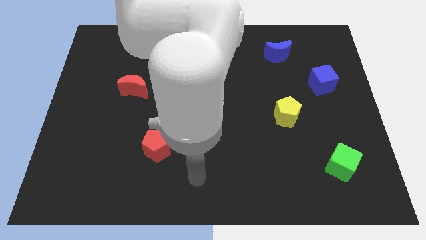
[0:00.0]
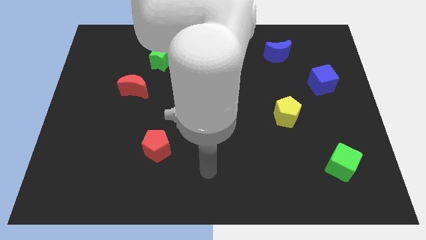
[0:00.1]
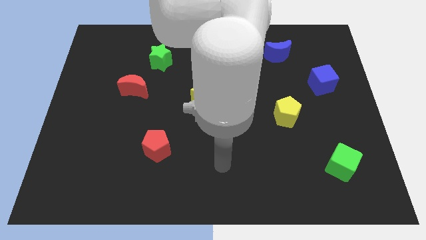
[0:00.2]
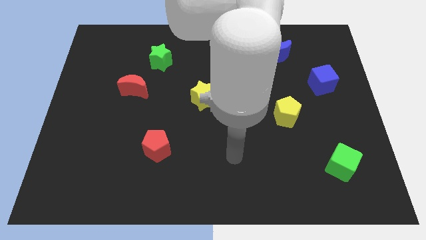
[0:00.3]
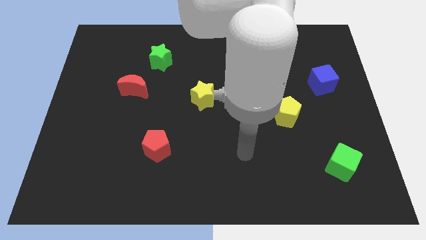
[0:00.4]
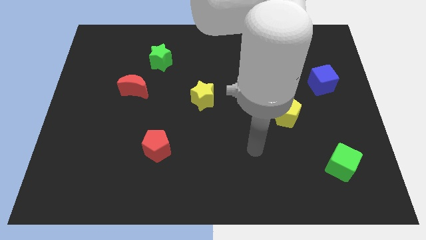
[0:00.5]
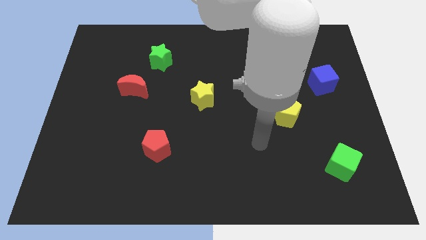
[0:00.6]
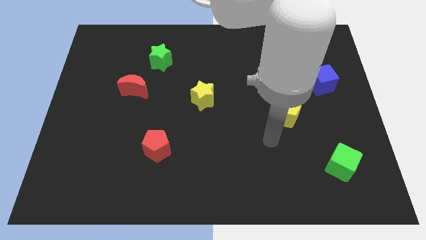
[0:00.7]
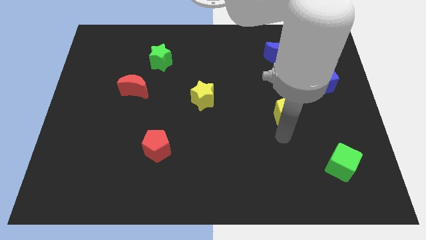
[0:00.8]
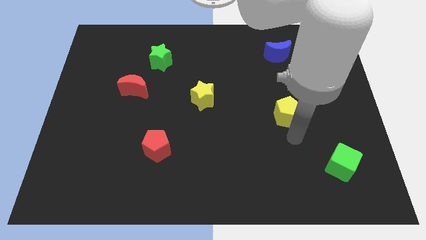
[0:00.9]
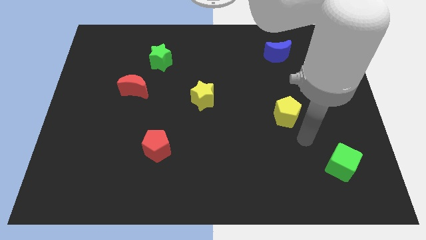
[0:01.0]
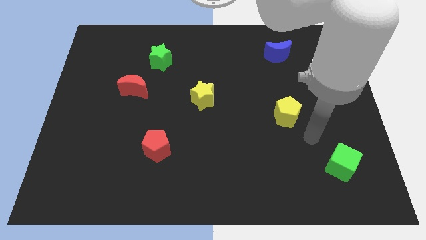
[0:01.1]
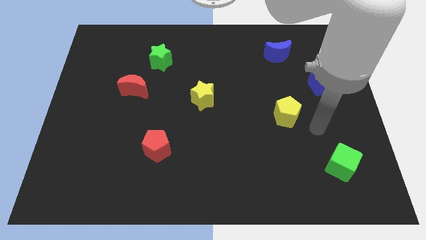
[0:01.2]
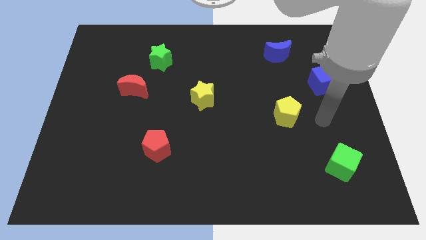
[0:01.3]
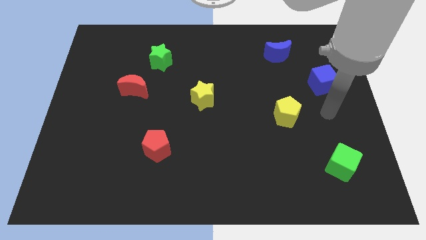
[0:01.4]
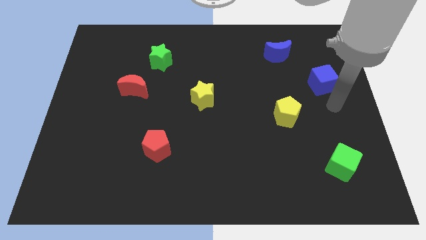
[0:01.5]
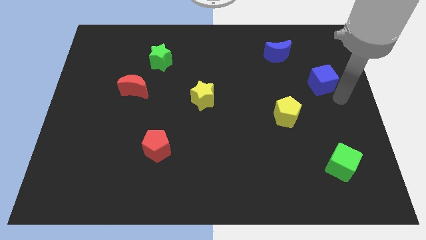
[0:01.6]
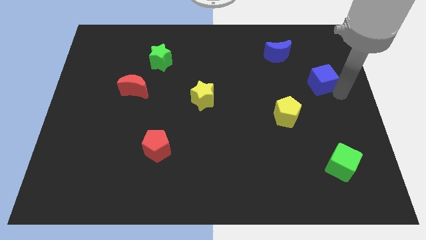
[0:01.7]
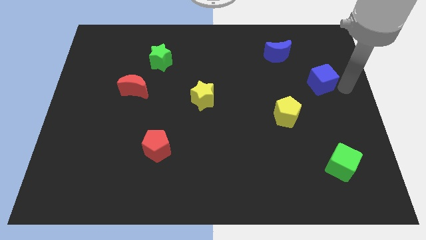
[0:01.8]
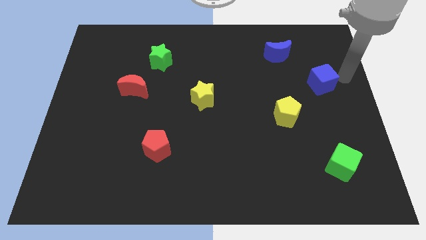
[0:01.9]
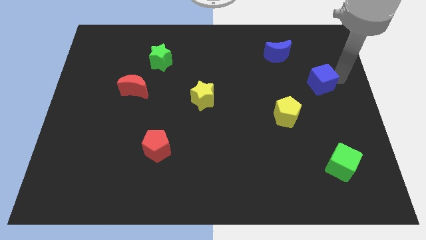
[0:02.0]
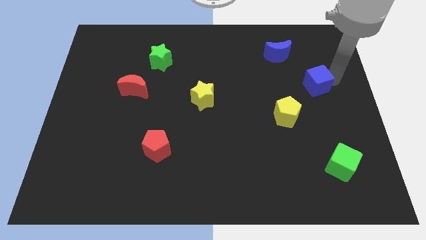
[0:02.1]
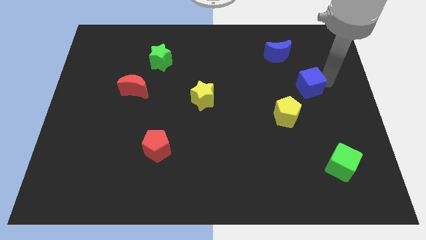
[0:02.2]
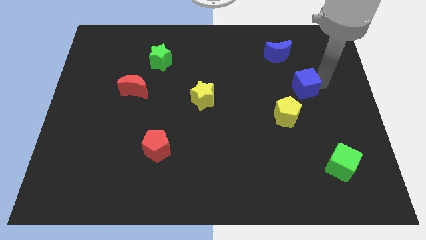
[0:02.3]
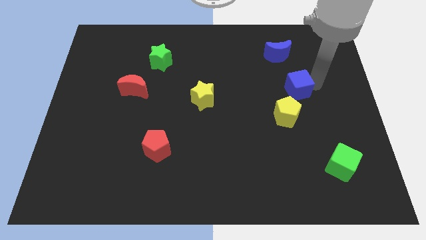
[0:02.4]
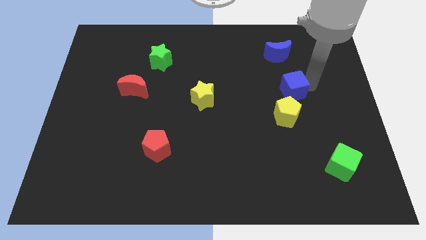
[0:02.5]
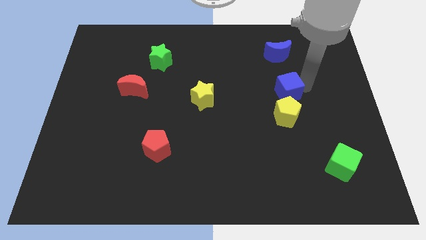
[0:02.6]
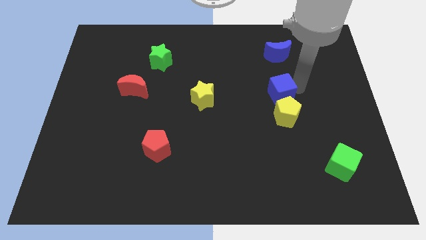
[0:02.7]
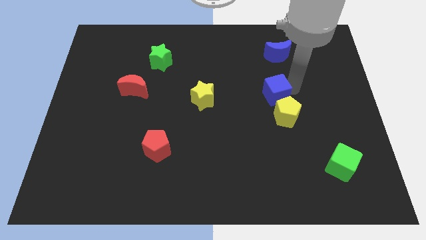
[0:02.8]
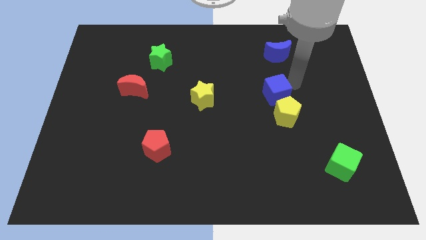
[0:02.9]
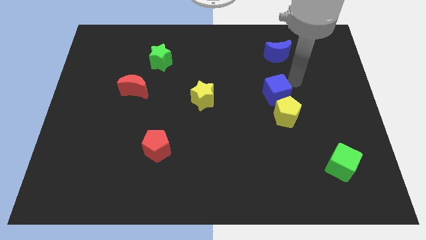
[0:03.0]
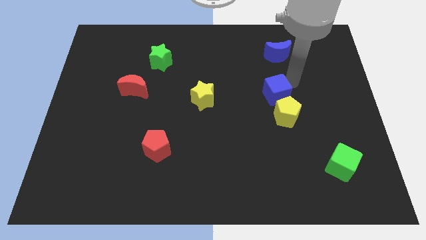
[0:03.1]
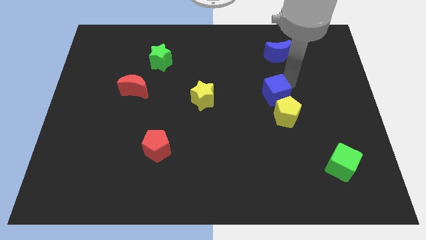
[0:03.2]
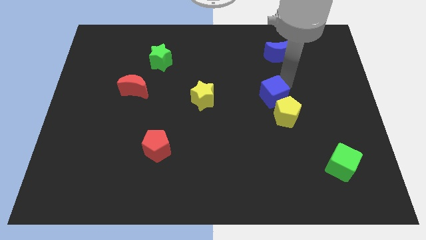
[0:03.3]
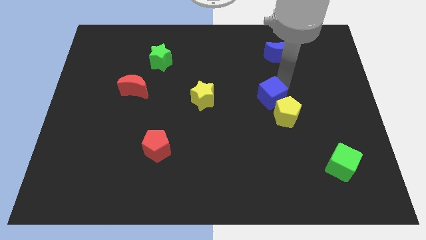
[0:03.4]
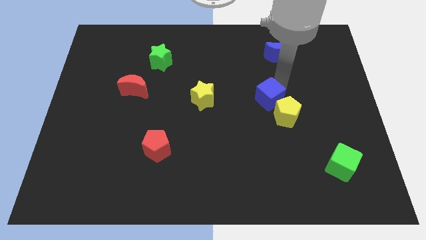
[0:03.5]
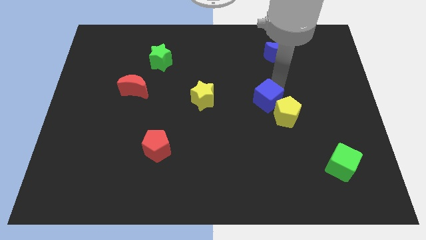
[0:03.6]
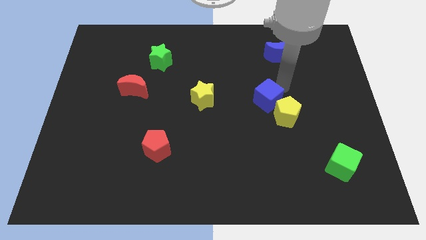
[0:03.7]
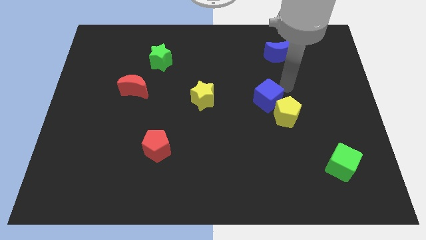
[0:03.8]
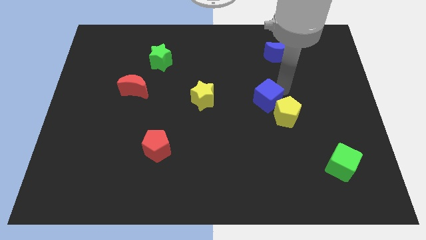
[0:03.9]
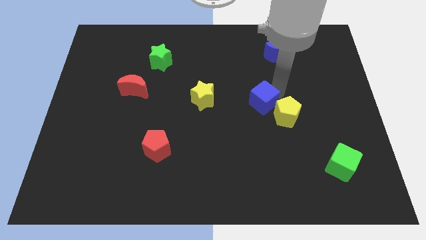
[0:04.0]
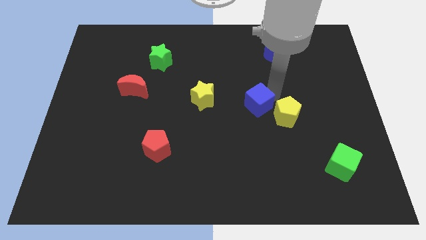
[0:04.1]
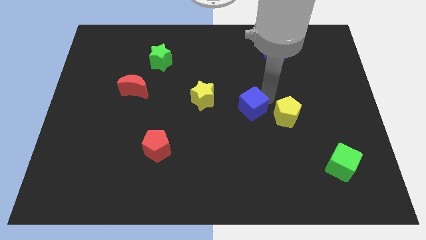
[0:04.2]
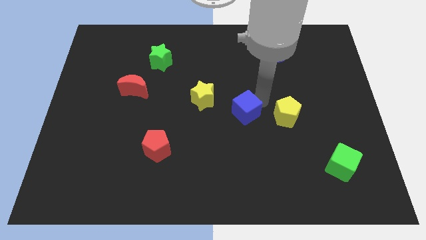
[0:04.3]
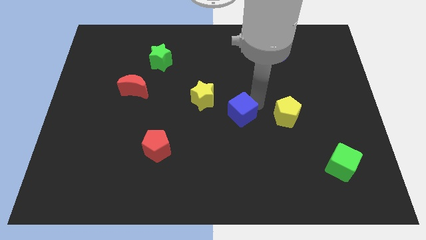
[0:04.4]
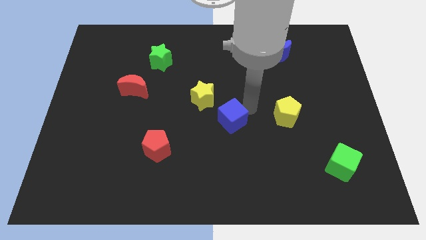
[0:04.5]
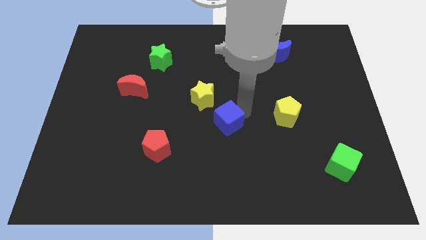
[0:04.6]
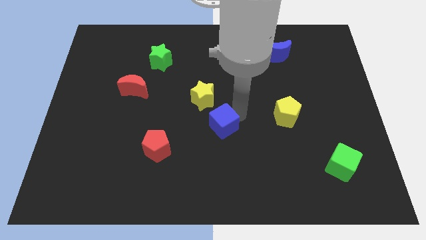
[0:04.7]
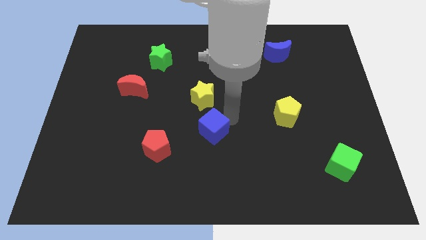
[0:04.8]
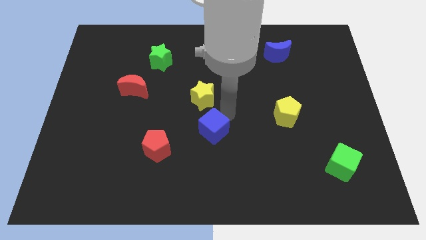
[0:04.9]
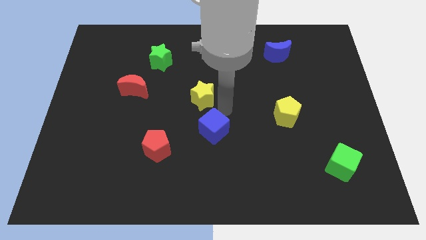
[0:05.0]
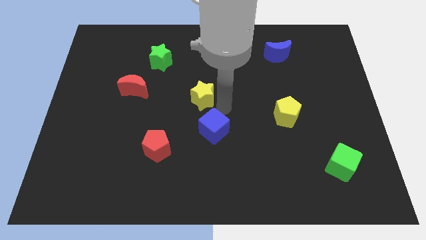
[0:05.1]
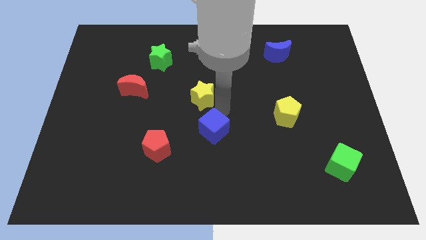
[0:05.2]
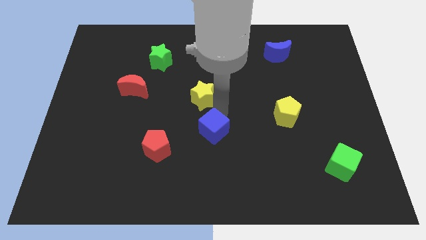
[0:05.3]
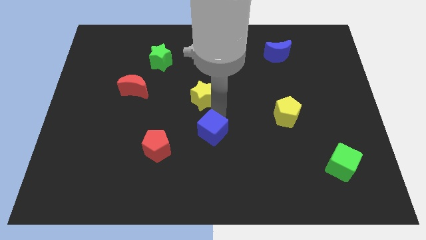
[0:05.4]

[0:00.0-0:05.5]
put the blue cube just right of the red pentagon

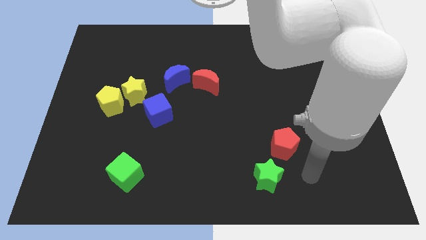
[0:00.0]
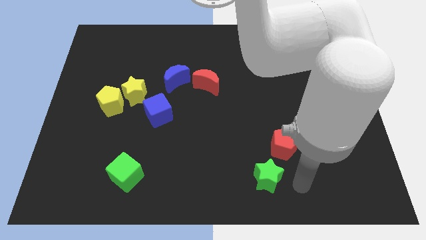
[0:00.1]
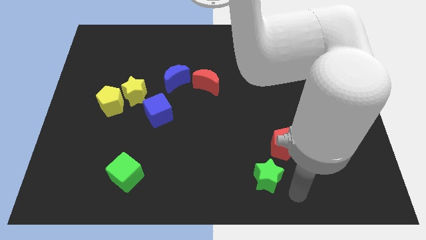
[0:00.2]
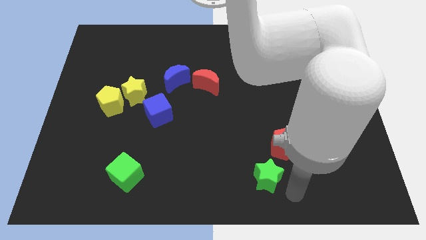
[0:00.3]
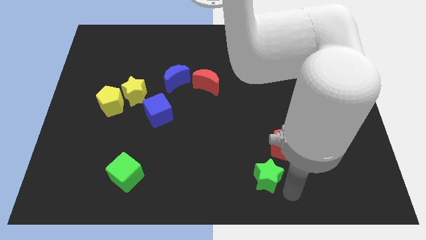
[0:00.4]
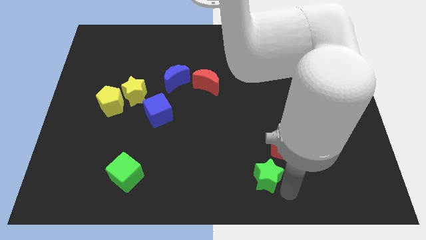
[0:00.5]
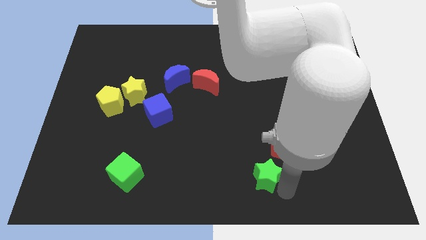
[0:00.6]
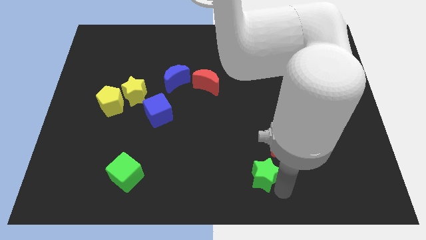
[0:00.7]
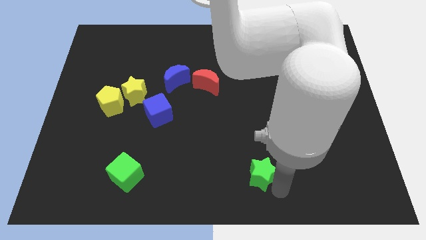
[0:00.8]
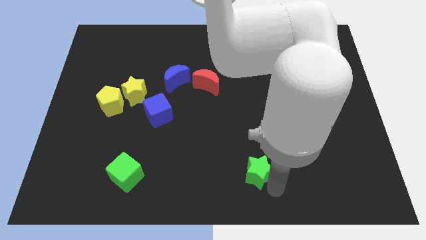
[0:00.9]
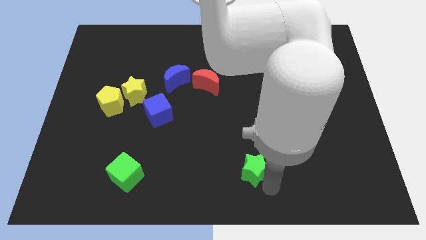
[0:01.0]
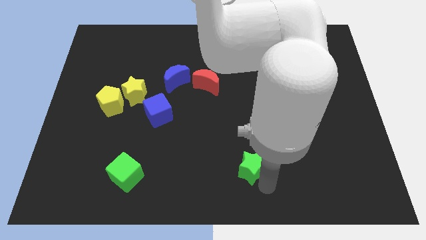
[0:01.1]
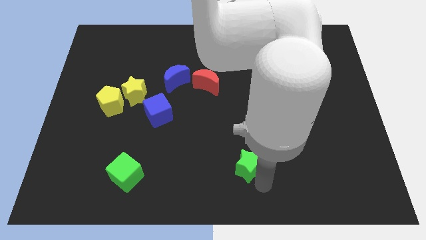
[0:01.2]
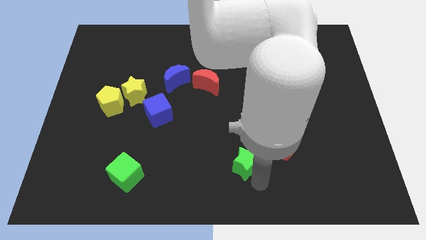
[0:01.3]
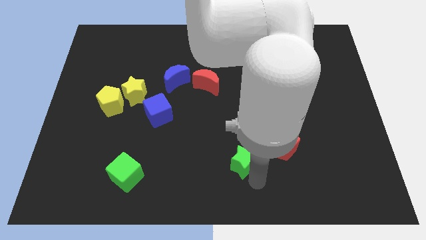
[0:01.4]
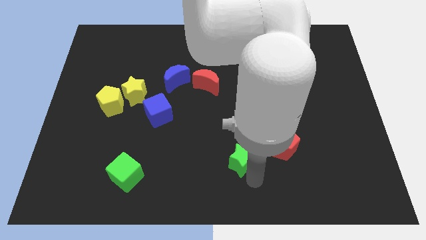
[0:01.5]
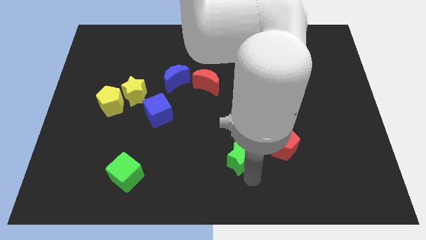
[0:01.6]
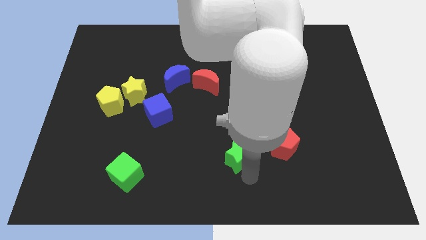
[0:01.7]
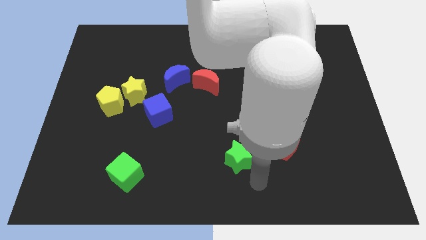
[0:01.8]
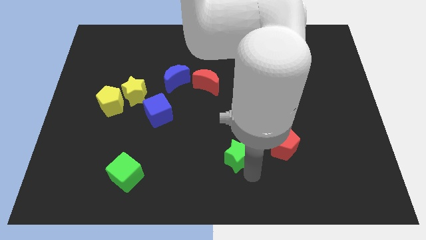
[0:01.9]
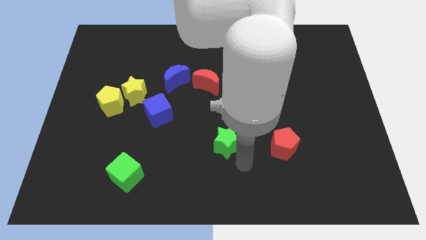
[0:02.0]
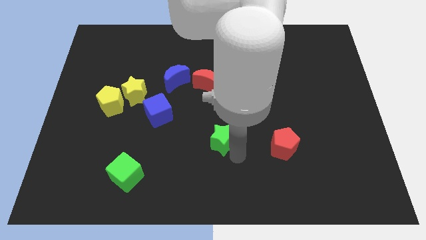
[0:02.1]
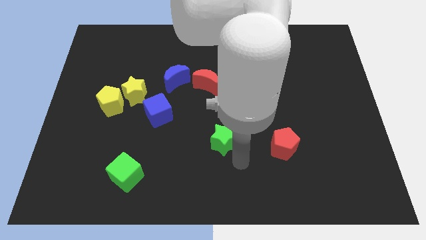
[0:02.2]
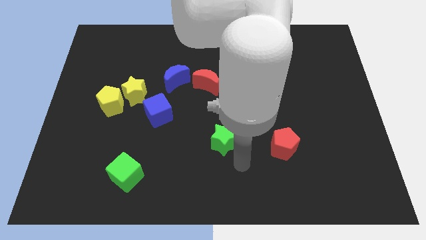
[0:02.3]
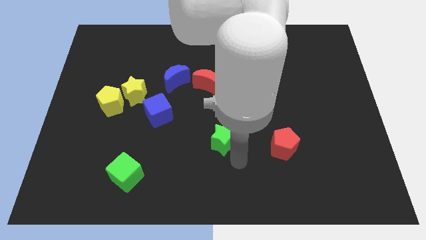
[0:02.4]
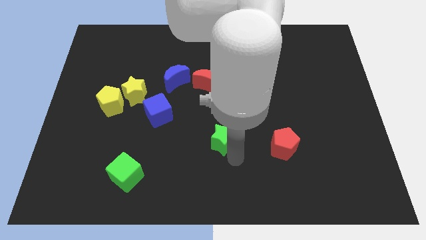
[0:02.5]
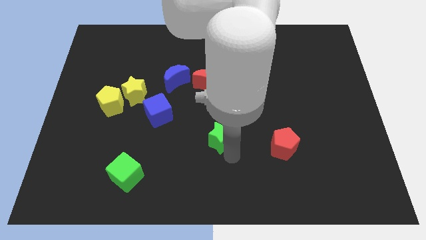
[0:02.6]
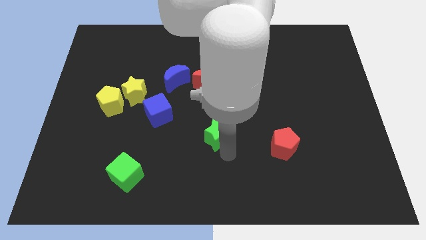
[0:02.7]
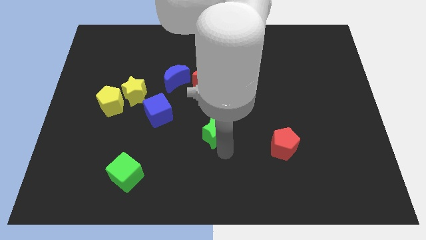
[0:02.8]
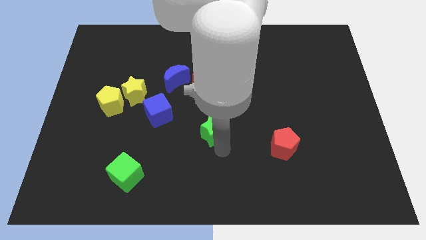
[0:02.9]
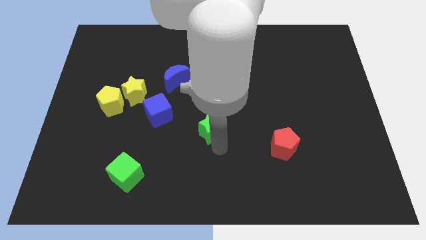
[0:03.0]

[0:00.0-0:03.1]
push the green star to the right of the blue cube
